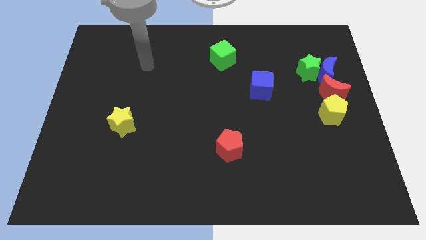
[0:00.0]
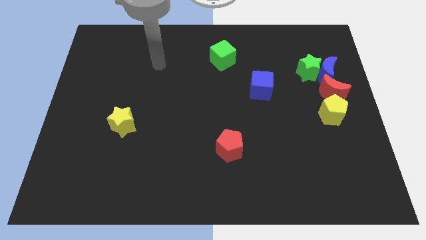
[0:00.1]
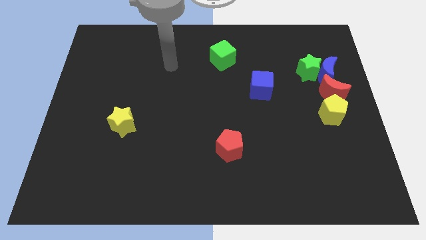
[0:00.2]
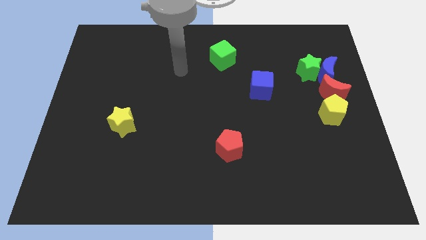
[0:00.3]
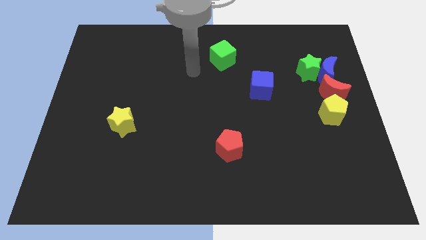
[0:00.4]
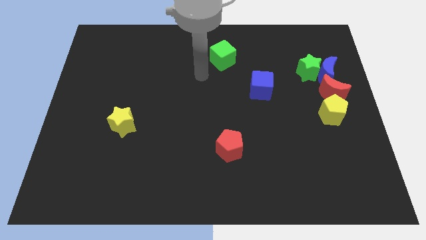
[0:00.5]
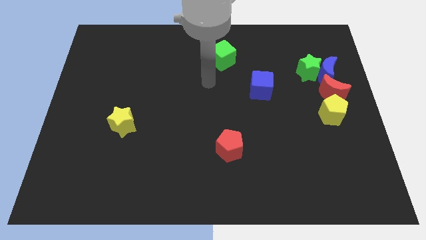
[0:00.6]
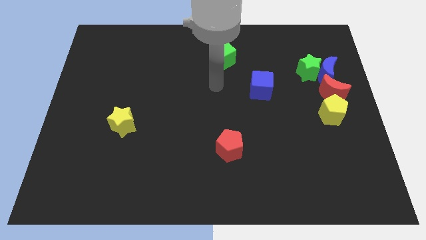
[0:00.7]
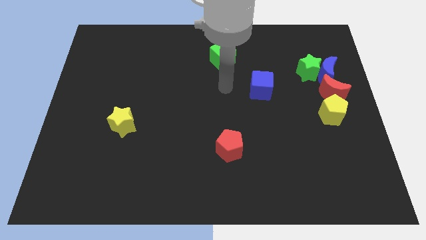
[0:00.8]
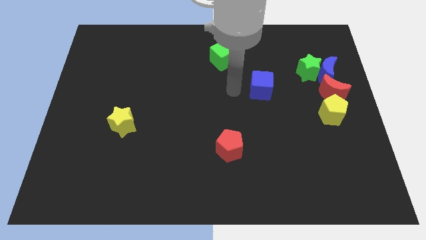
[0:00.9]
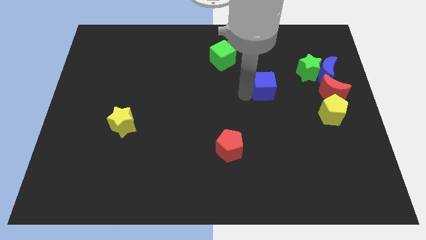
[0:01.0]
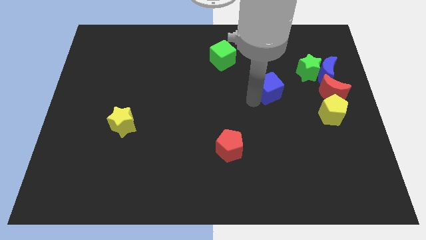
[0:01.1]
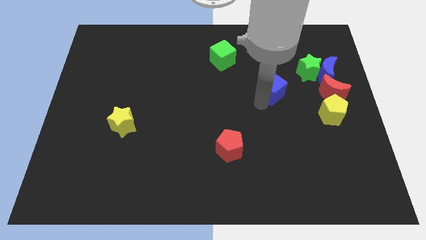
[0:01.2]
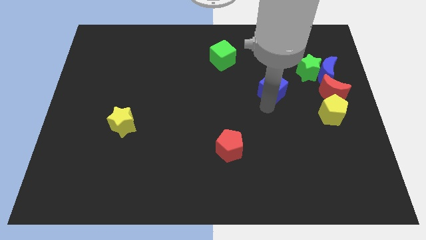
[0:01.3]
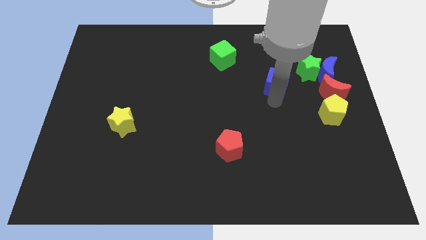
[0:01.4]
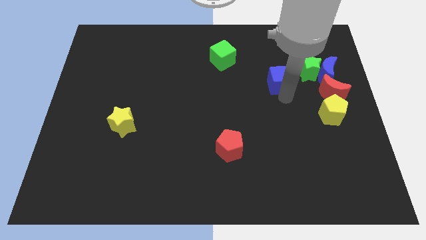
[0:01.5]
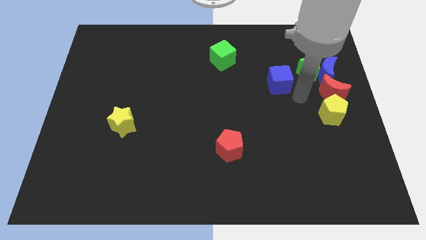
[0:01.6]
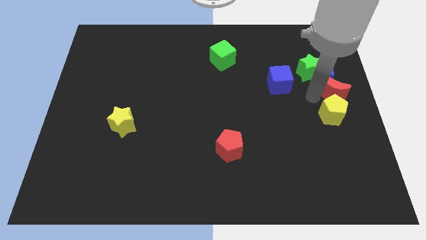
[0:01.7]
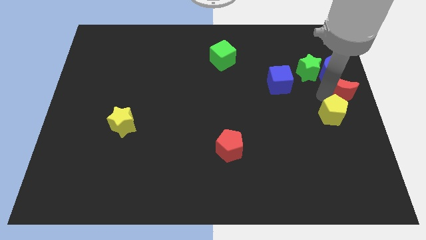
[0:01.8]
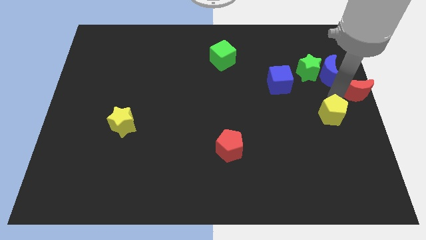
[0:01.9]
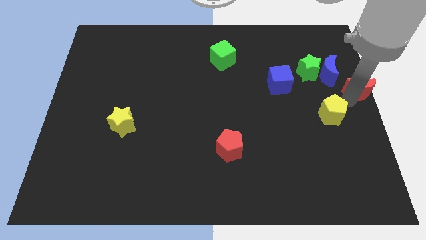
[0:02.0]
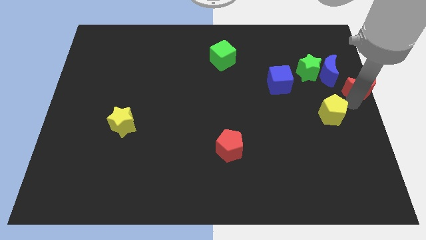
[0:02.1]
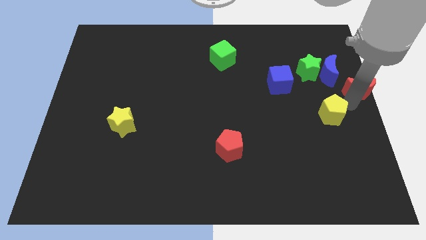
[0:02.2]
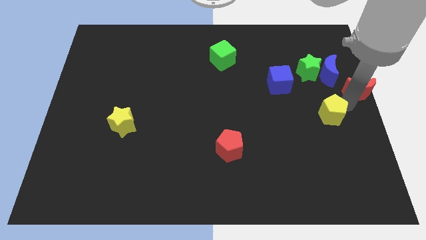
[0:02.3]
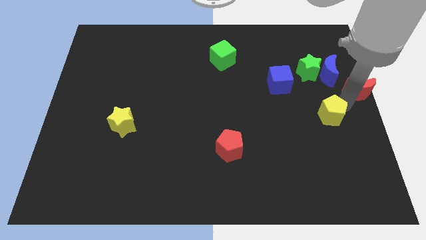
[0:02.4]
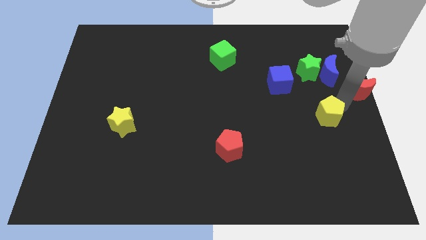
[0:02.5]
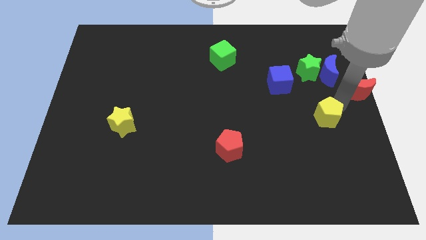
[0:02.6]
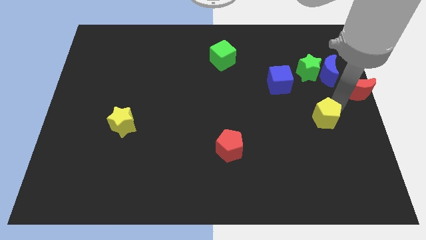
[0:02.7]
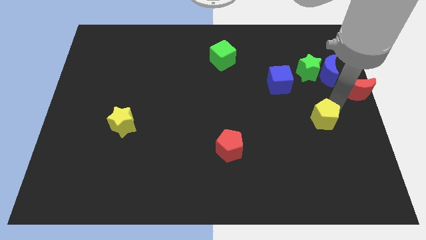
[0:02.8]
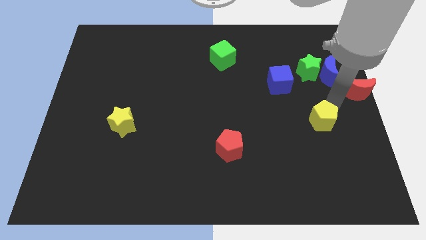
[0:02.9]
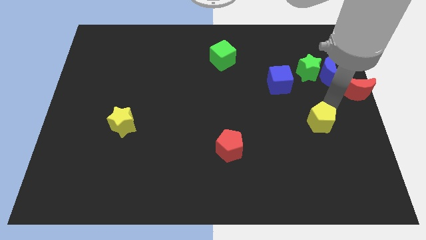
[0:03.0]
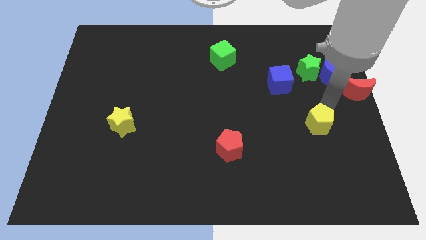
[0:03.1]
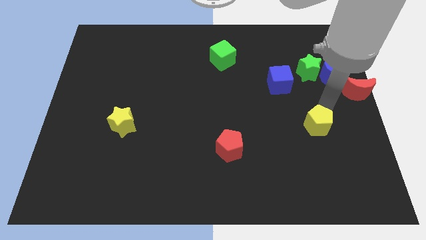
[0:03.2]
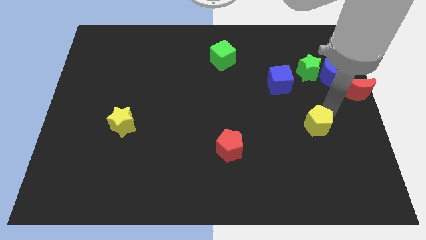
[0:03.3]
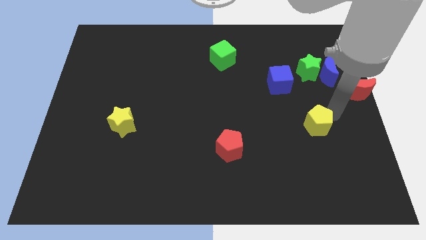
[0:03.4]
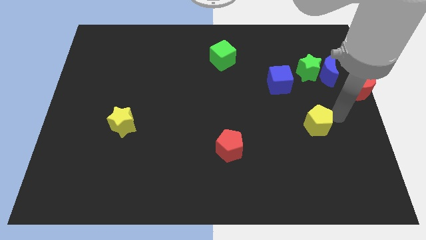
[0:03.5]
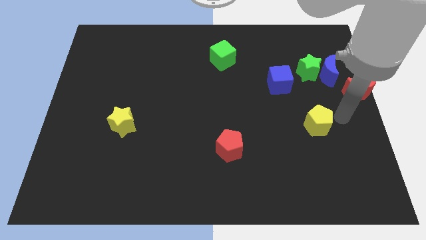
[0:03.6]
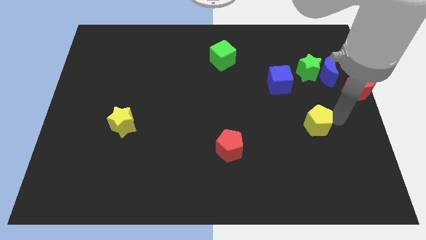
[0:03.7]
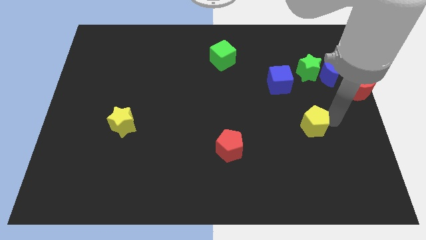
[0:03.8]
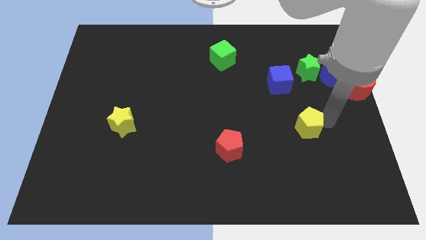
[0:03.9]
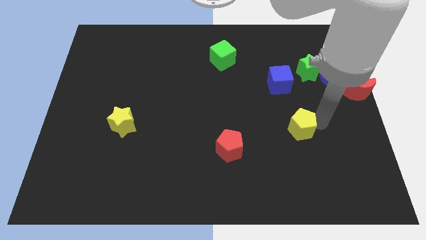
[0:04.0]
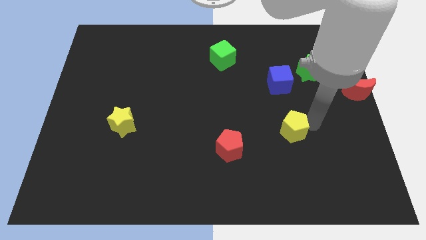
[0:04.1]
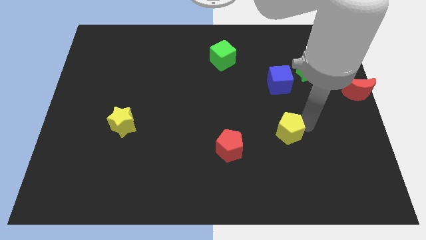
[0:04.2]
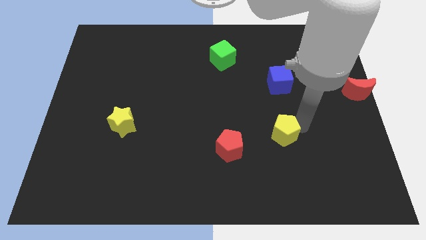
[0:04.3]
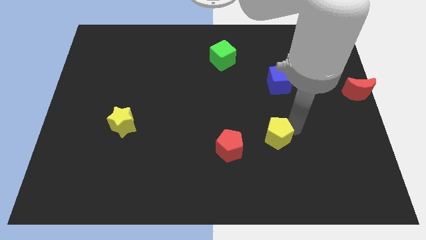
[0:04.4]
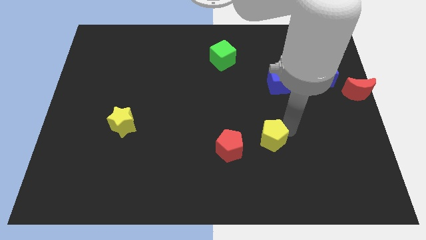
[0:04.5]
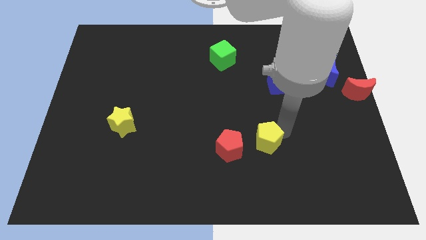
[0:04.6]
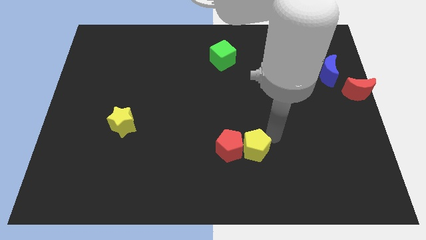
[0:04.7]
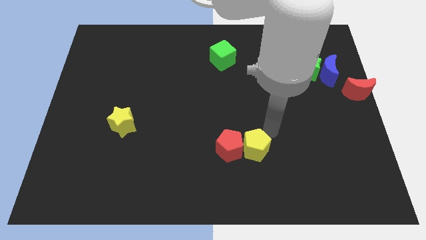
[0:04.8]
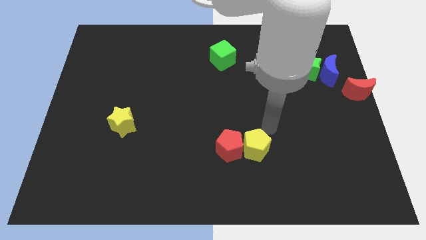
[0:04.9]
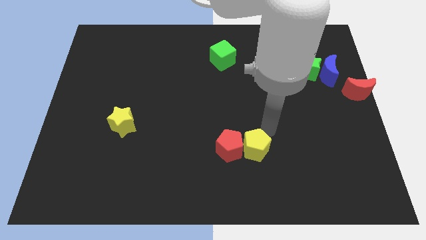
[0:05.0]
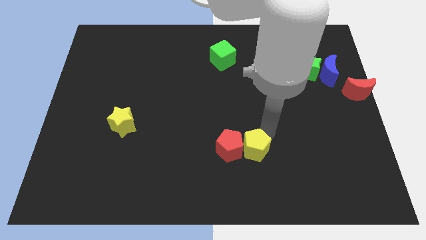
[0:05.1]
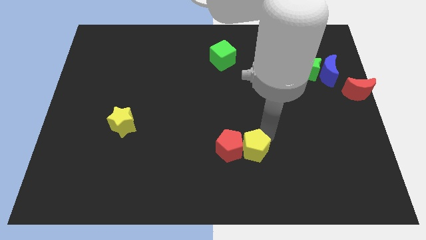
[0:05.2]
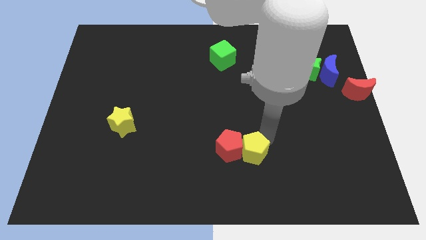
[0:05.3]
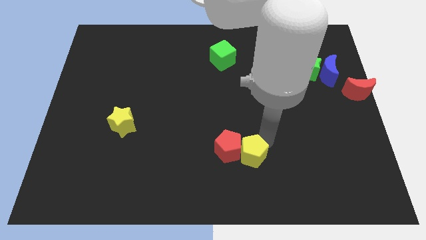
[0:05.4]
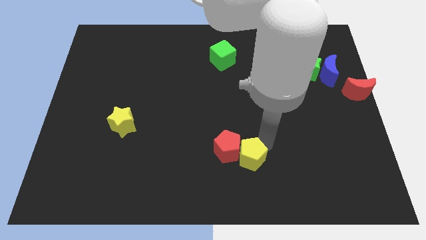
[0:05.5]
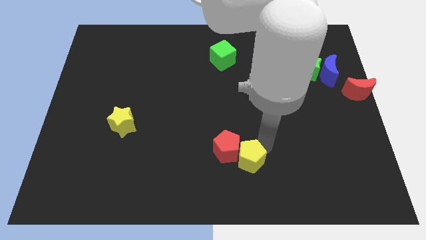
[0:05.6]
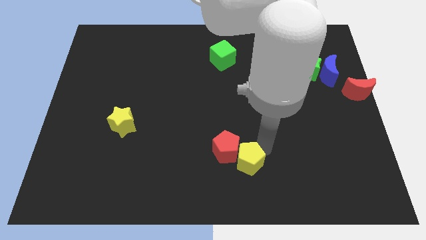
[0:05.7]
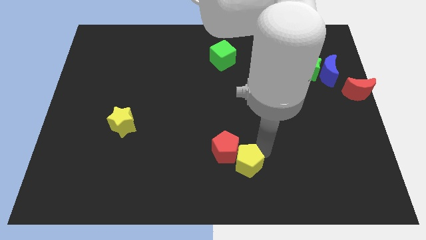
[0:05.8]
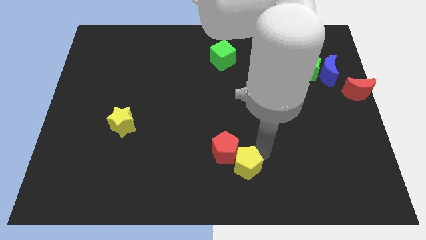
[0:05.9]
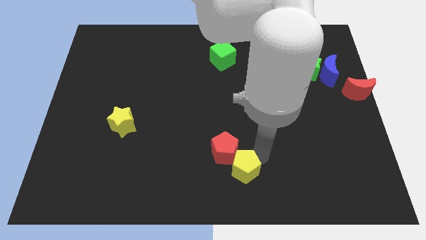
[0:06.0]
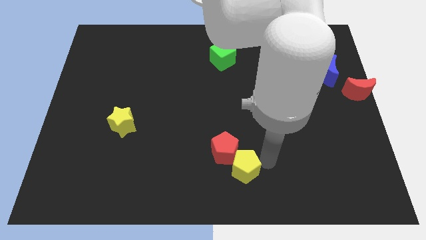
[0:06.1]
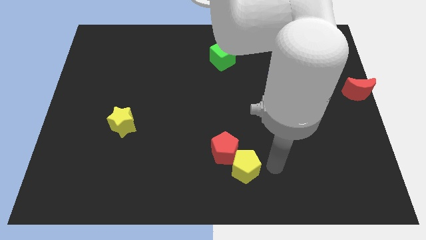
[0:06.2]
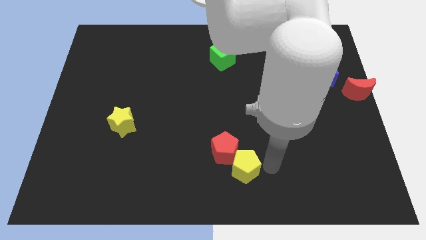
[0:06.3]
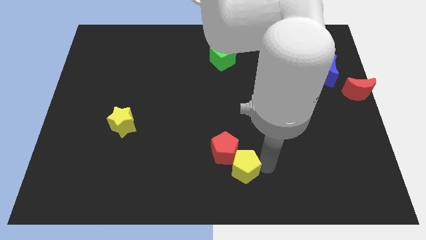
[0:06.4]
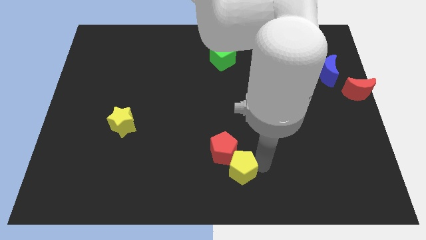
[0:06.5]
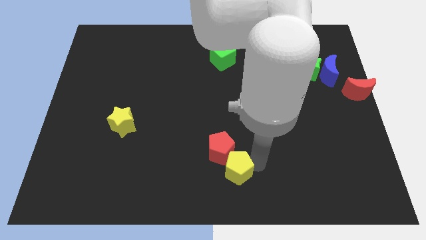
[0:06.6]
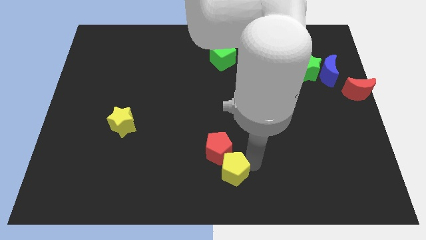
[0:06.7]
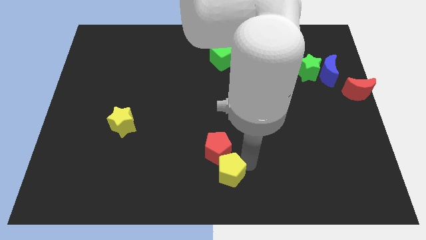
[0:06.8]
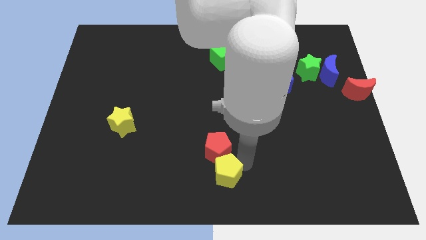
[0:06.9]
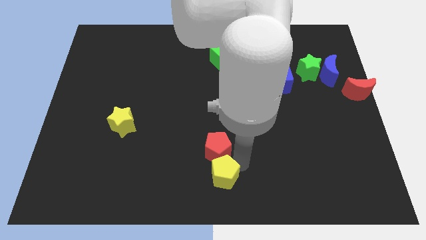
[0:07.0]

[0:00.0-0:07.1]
move the yellow pentagon diagonally down and to the left of the red pentagon
